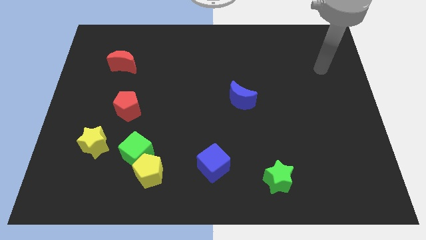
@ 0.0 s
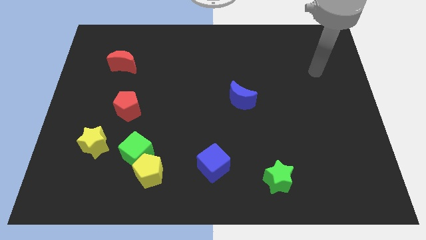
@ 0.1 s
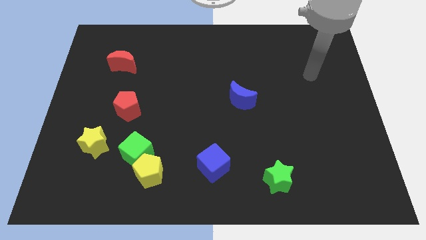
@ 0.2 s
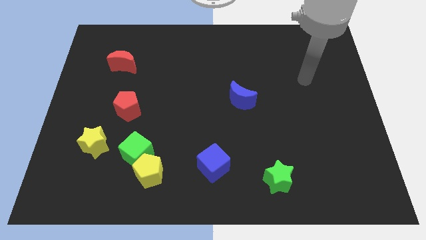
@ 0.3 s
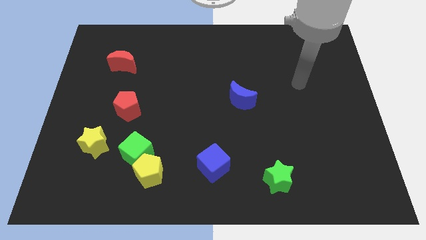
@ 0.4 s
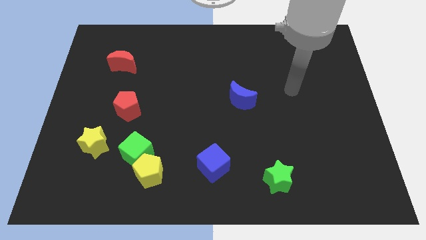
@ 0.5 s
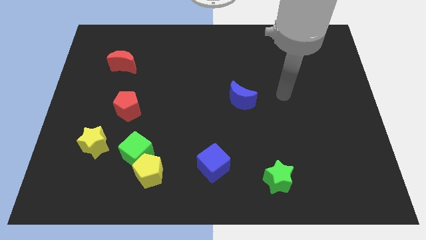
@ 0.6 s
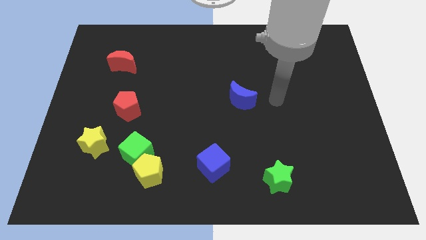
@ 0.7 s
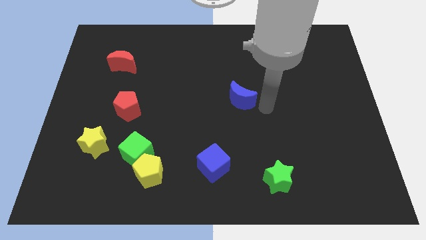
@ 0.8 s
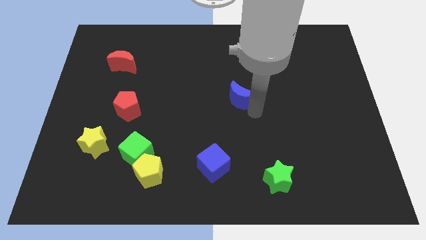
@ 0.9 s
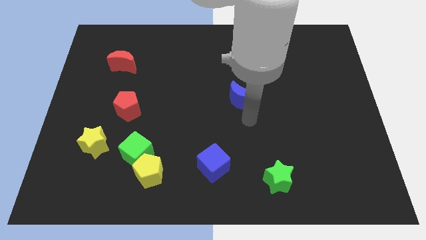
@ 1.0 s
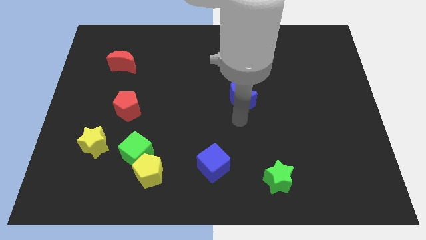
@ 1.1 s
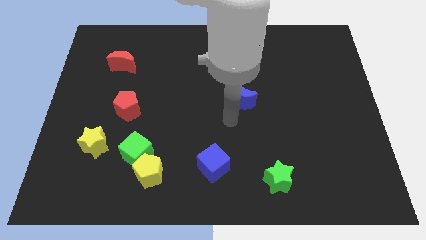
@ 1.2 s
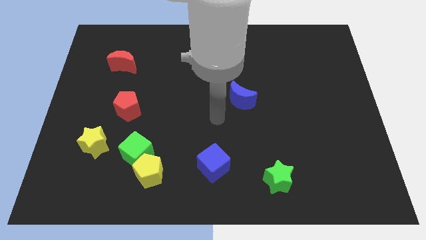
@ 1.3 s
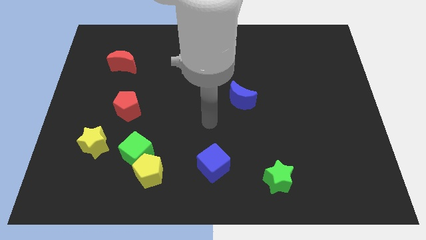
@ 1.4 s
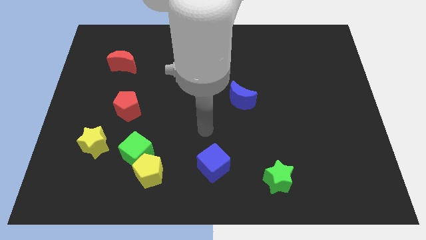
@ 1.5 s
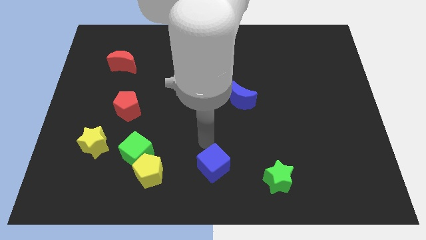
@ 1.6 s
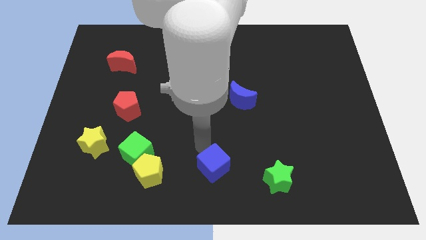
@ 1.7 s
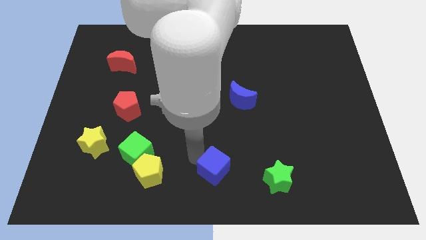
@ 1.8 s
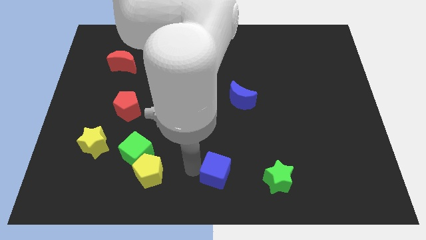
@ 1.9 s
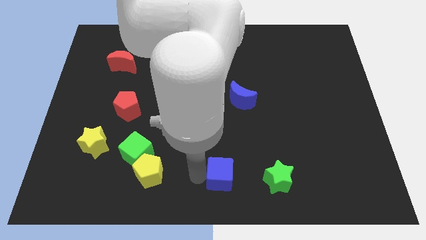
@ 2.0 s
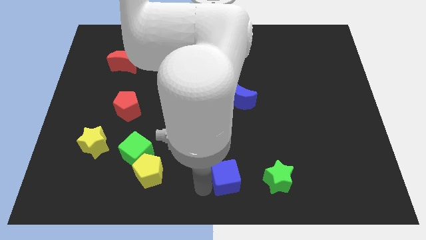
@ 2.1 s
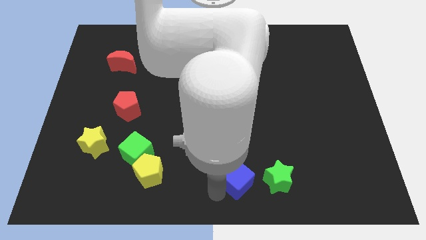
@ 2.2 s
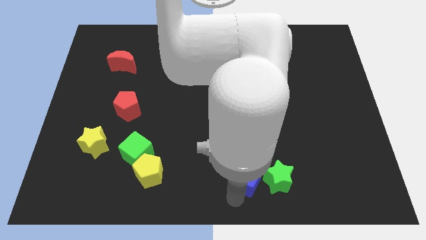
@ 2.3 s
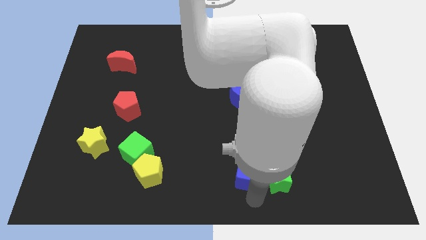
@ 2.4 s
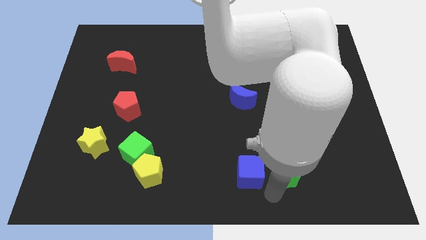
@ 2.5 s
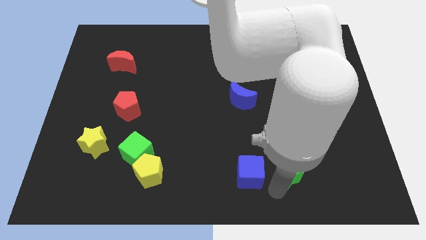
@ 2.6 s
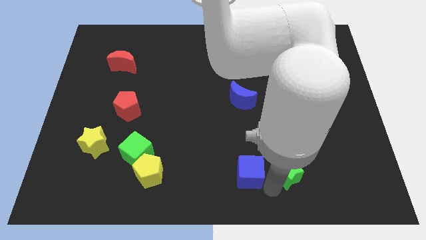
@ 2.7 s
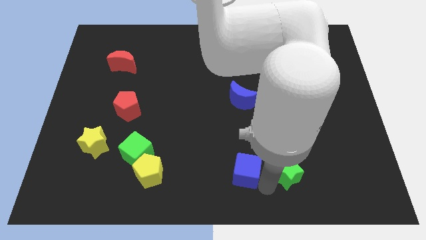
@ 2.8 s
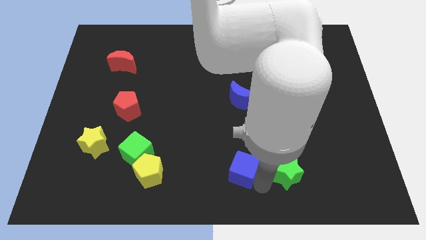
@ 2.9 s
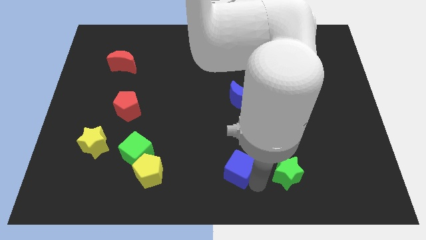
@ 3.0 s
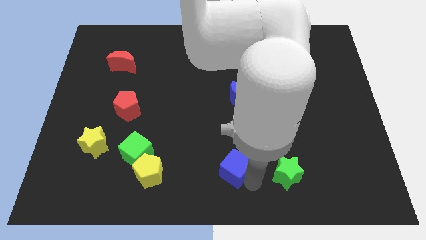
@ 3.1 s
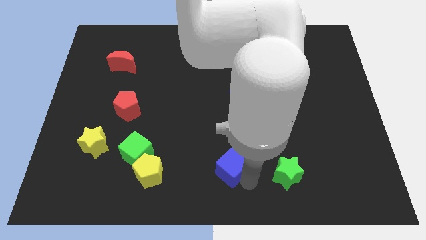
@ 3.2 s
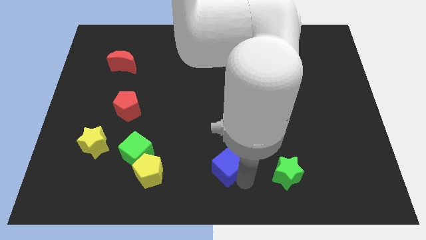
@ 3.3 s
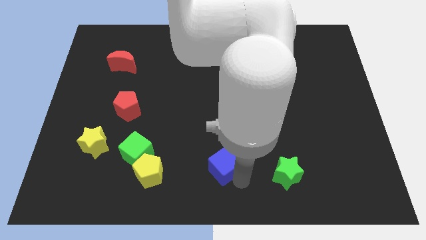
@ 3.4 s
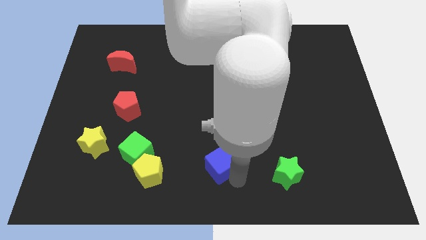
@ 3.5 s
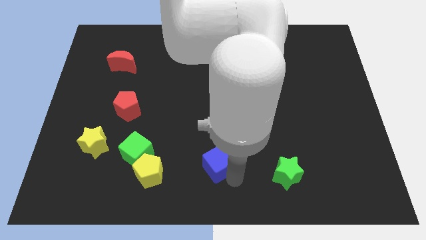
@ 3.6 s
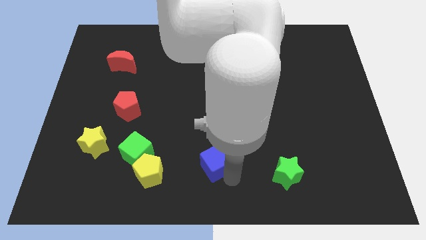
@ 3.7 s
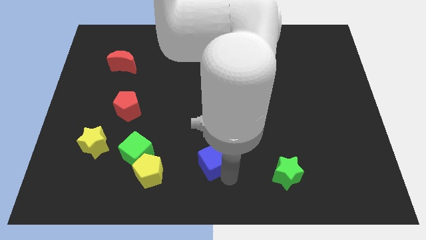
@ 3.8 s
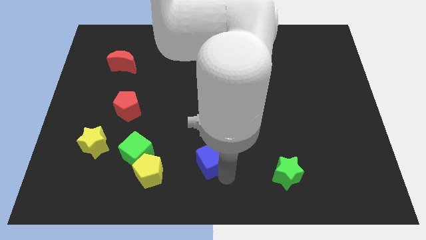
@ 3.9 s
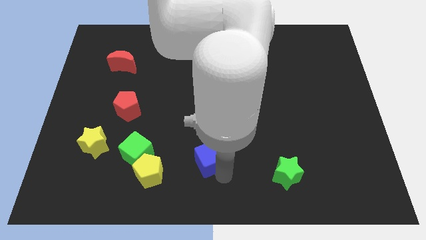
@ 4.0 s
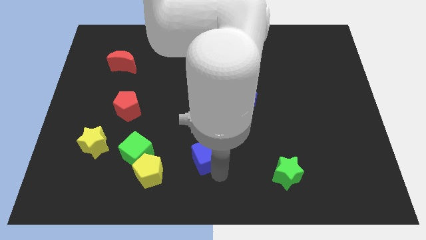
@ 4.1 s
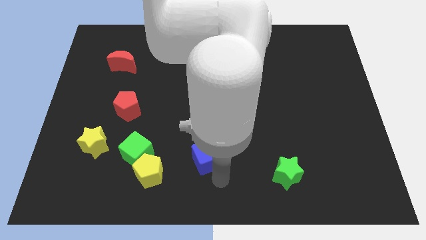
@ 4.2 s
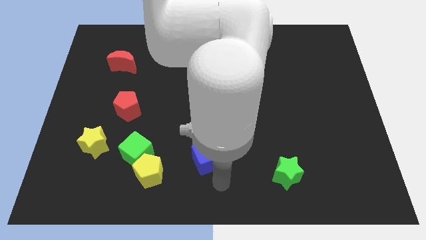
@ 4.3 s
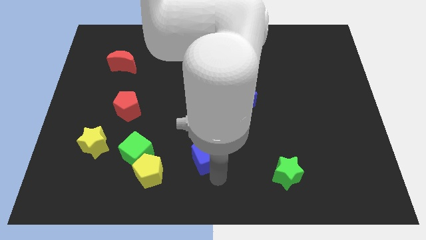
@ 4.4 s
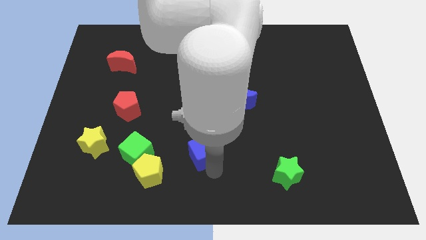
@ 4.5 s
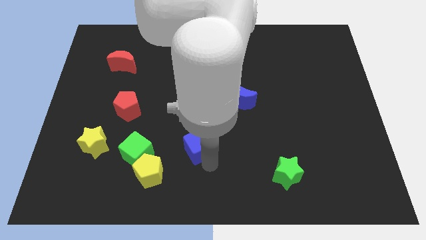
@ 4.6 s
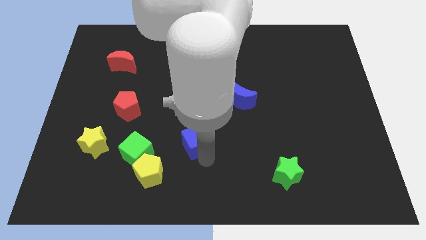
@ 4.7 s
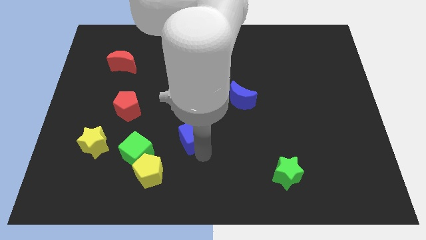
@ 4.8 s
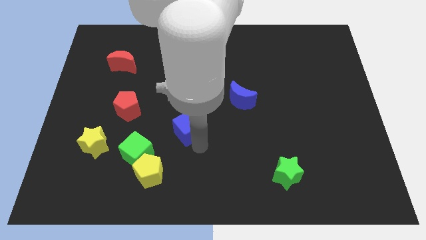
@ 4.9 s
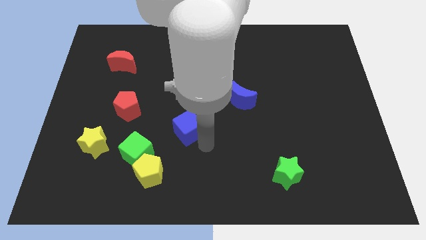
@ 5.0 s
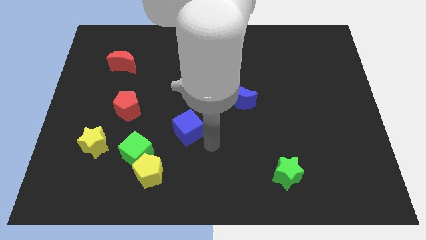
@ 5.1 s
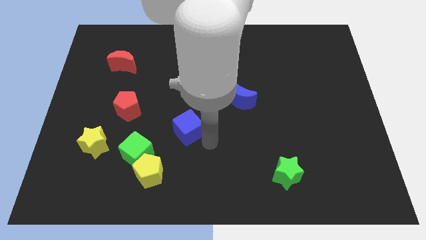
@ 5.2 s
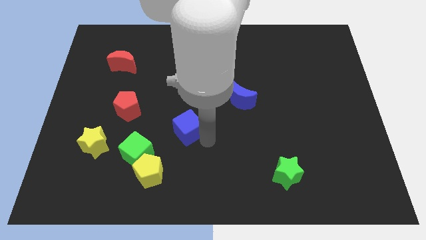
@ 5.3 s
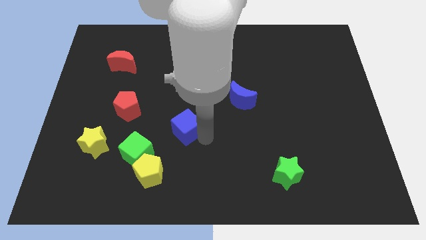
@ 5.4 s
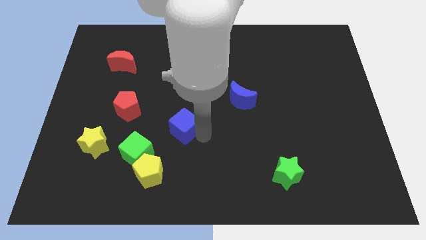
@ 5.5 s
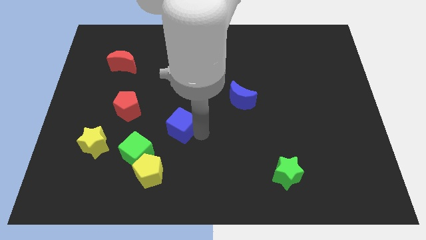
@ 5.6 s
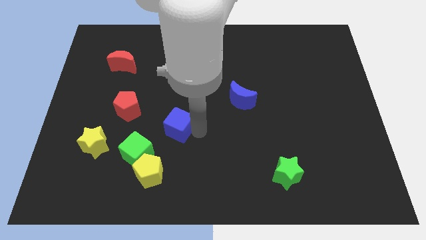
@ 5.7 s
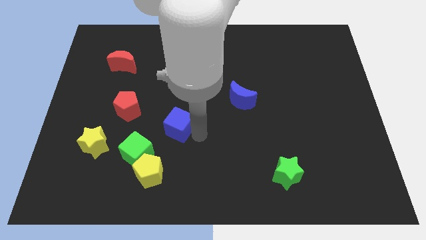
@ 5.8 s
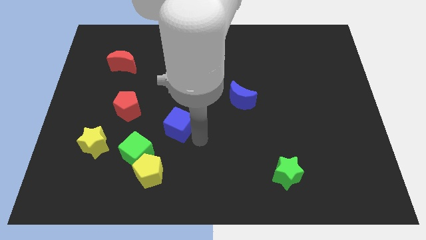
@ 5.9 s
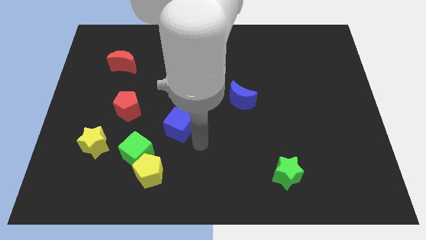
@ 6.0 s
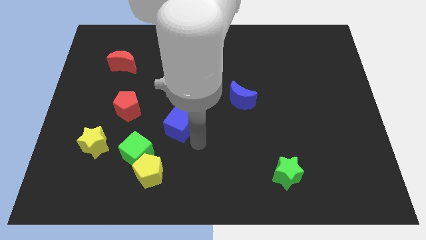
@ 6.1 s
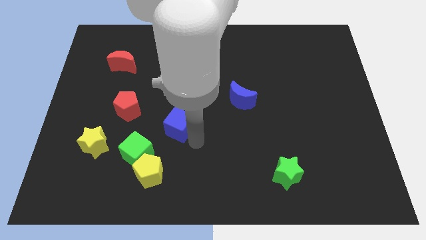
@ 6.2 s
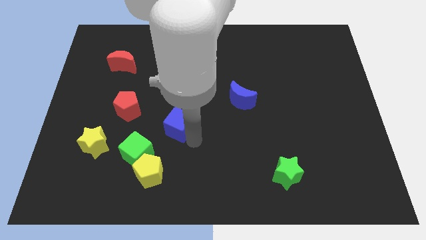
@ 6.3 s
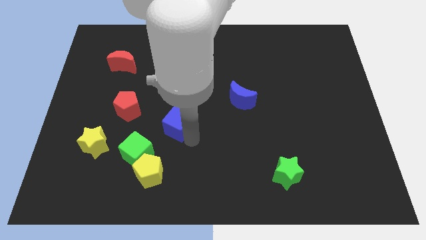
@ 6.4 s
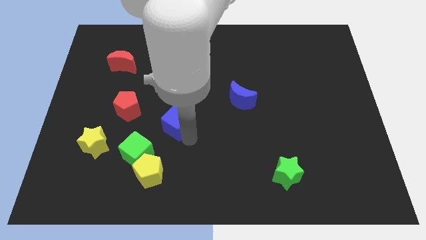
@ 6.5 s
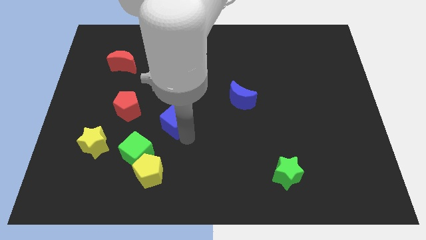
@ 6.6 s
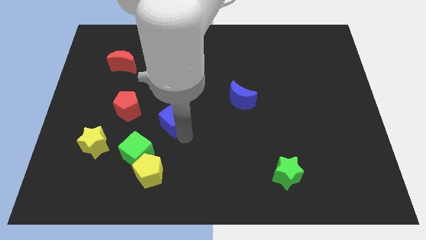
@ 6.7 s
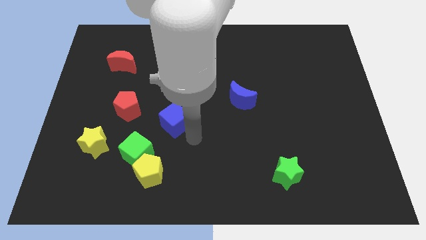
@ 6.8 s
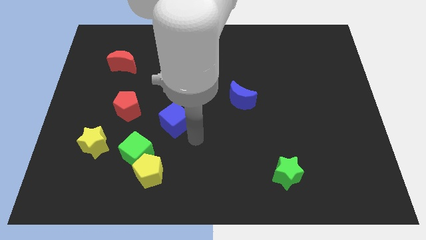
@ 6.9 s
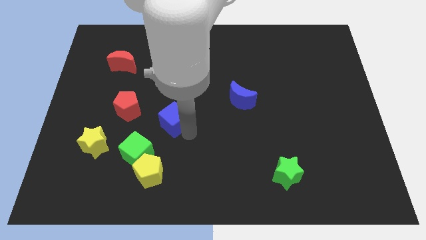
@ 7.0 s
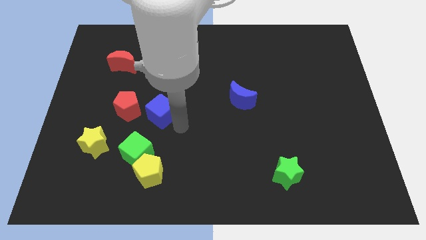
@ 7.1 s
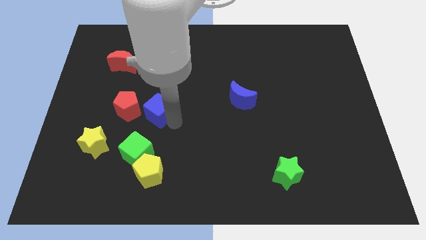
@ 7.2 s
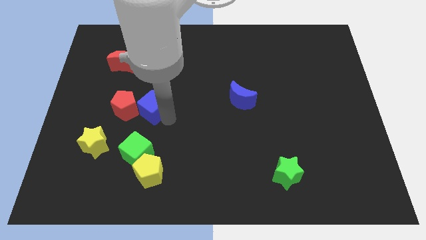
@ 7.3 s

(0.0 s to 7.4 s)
move the blue cube upwards and to the left diagonally

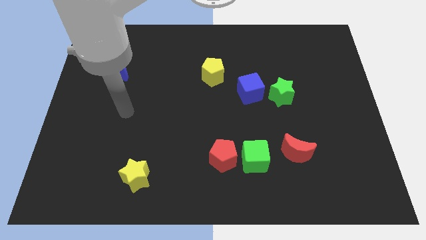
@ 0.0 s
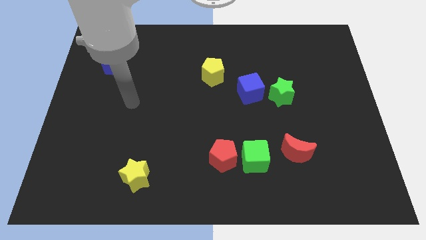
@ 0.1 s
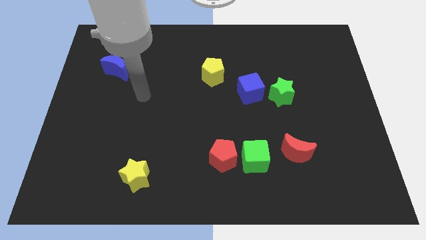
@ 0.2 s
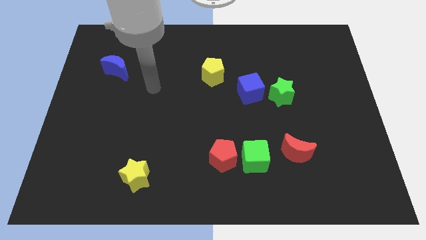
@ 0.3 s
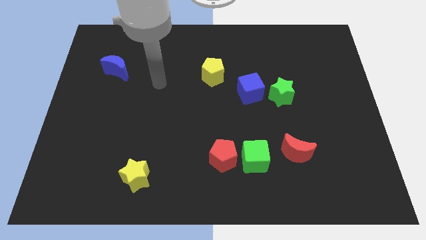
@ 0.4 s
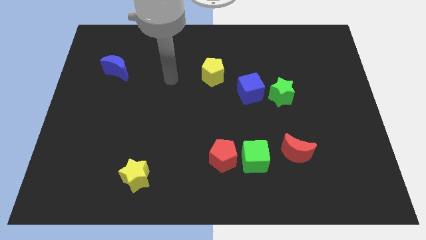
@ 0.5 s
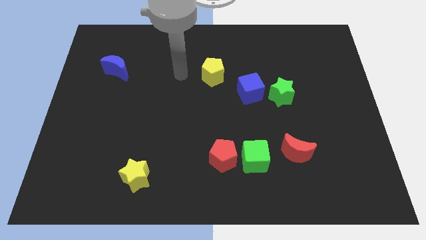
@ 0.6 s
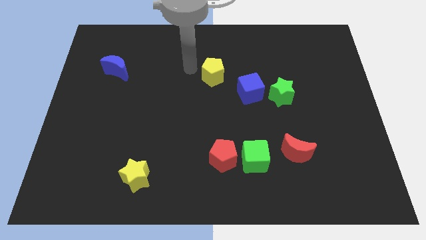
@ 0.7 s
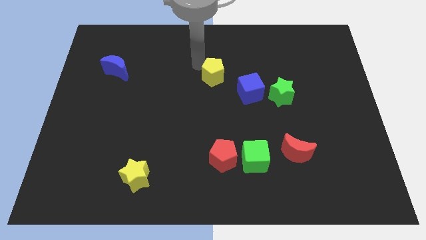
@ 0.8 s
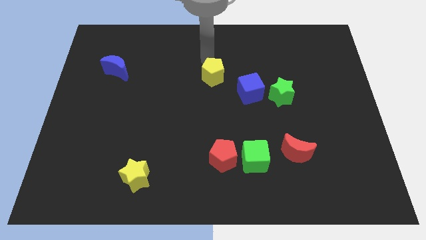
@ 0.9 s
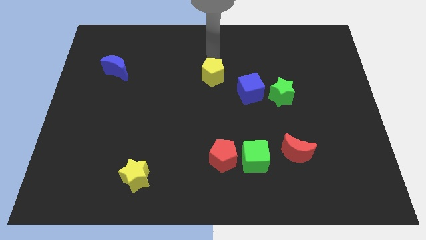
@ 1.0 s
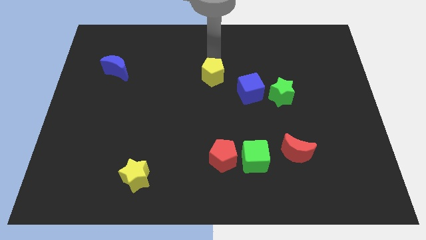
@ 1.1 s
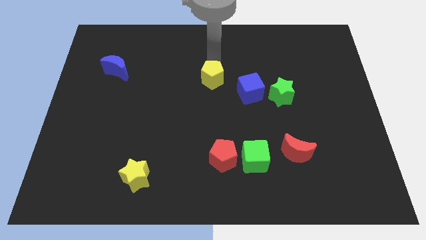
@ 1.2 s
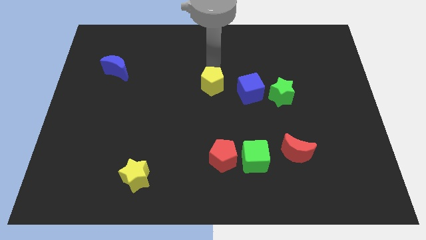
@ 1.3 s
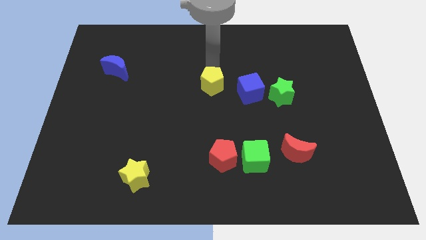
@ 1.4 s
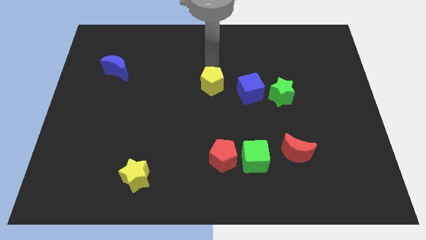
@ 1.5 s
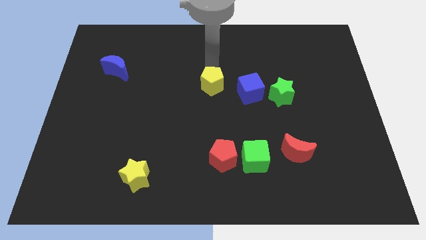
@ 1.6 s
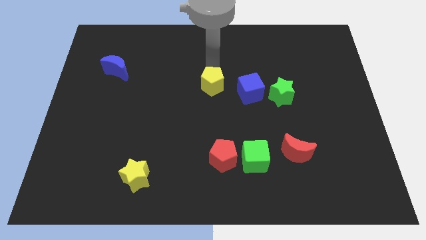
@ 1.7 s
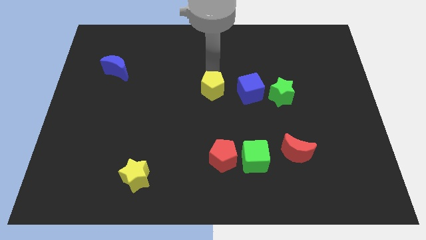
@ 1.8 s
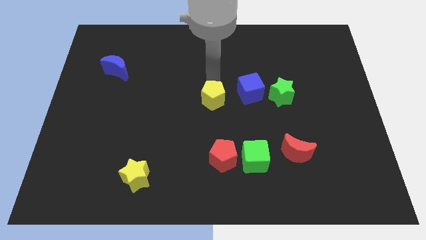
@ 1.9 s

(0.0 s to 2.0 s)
push the yellow pentagon a little bit down
